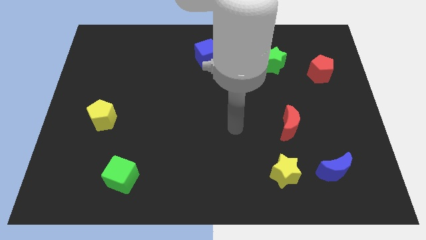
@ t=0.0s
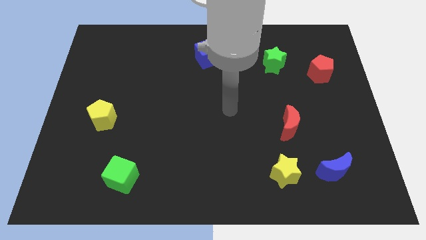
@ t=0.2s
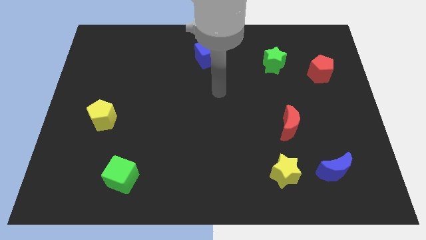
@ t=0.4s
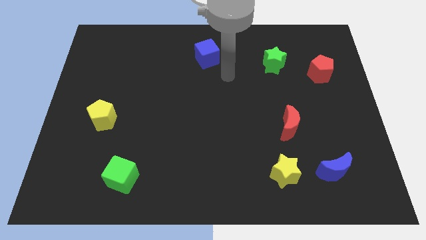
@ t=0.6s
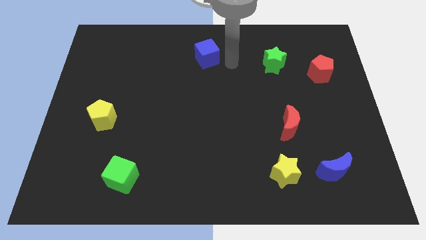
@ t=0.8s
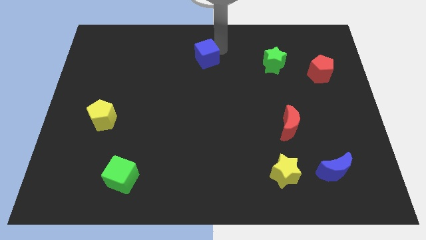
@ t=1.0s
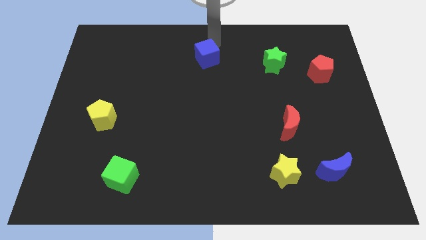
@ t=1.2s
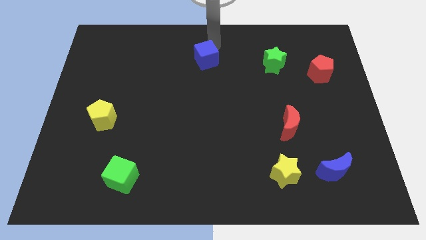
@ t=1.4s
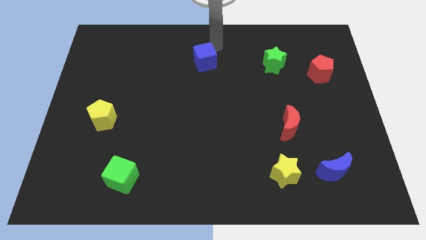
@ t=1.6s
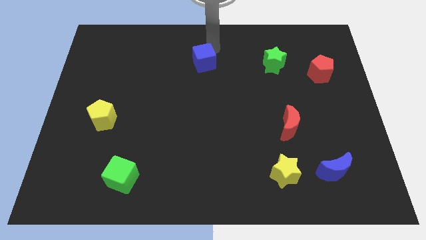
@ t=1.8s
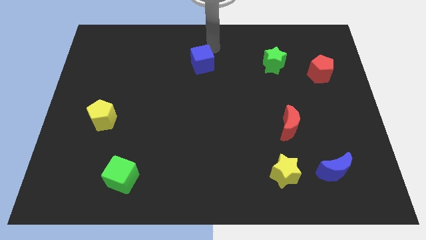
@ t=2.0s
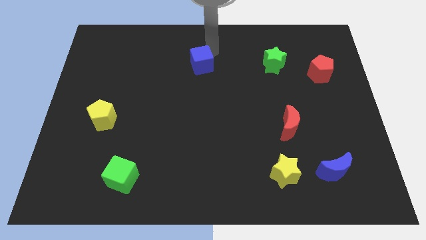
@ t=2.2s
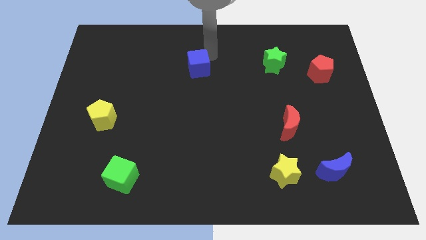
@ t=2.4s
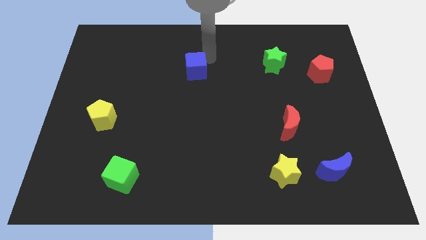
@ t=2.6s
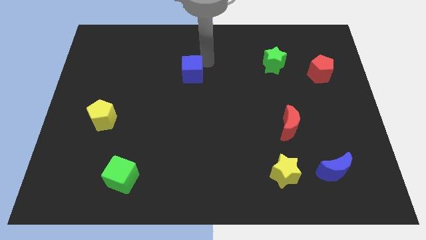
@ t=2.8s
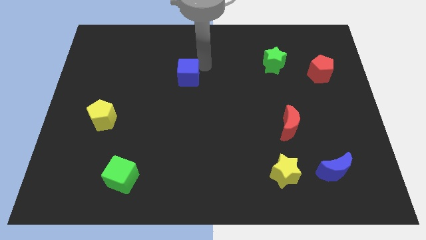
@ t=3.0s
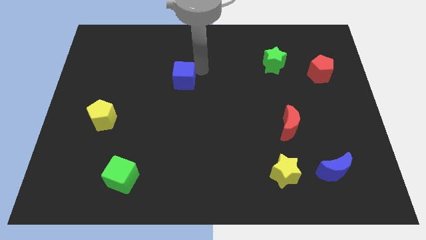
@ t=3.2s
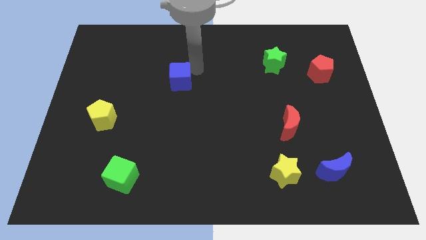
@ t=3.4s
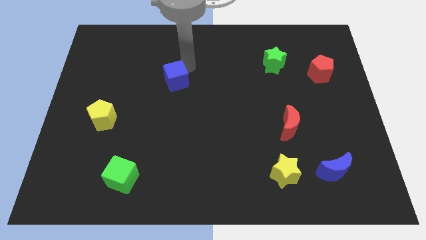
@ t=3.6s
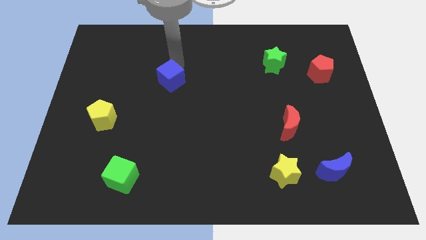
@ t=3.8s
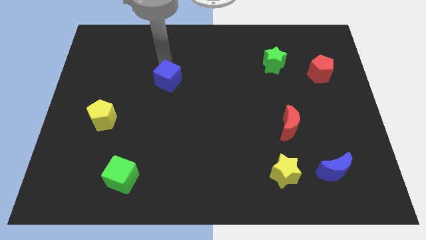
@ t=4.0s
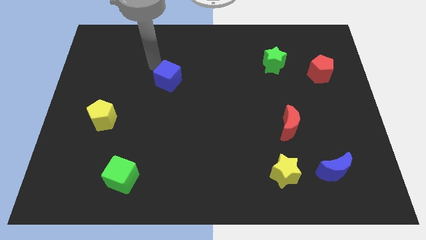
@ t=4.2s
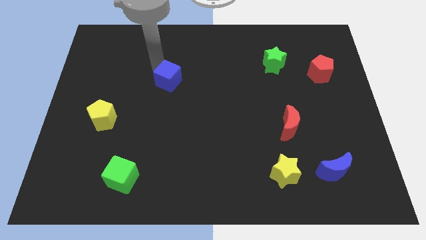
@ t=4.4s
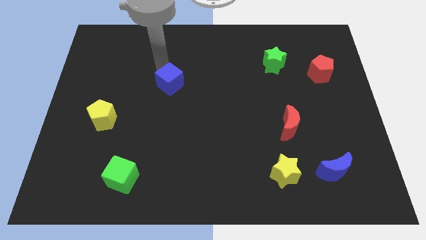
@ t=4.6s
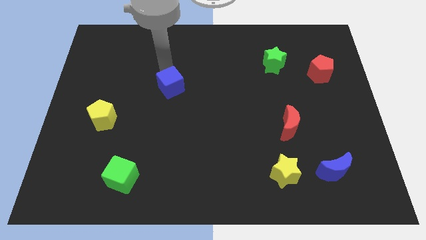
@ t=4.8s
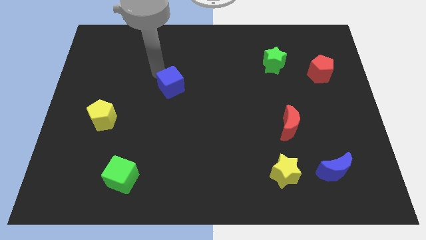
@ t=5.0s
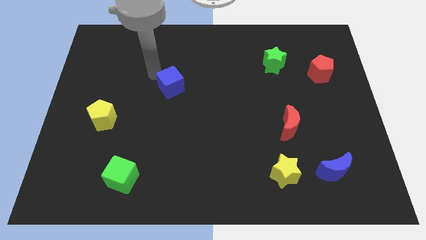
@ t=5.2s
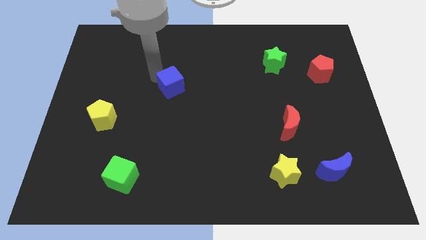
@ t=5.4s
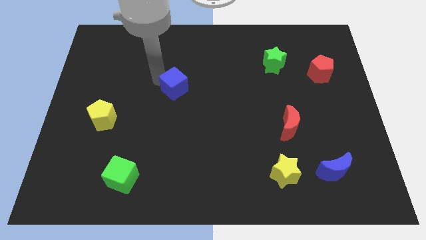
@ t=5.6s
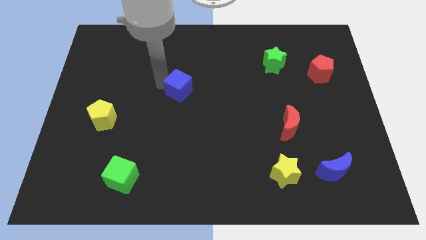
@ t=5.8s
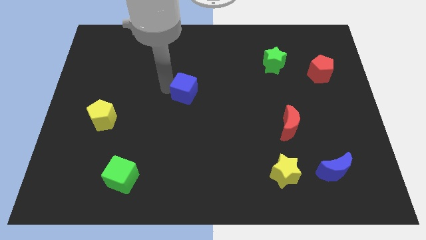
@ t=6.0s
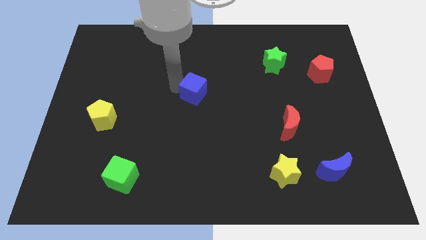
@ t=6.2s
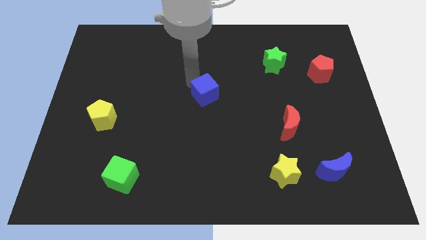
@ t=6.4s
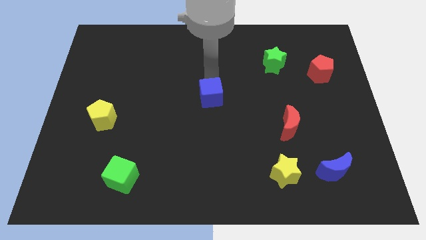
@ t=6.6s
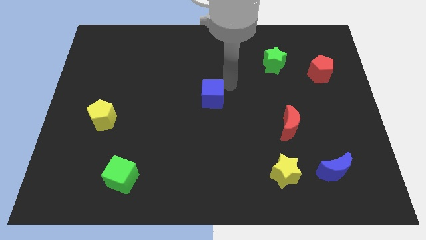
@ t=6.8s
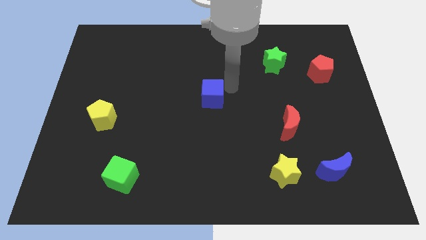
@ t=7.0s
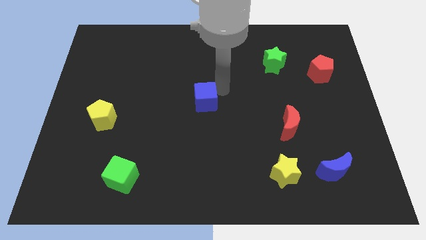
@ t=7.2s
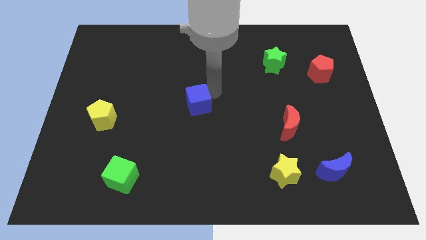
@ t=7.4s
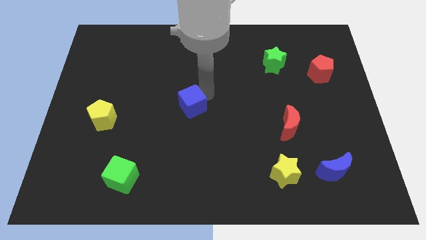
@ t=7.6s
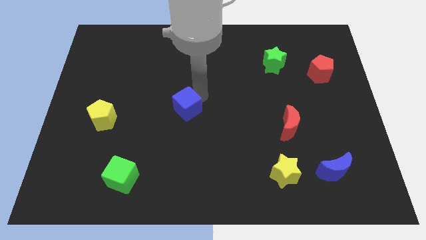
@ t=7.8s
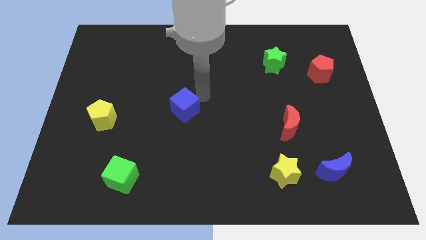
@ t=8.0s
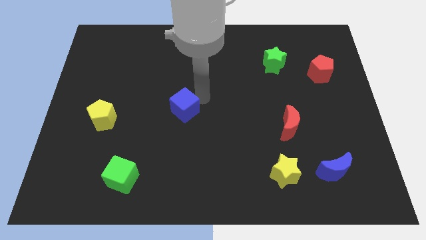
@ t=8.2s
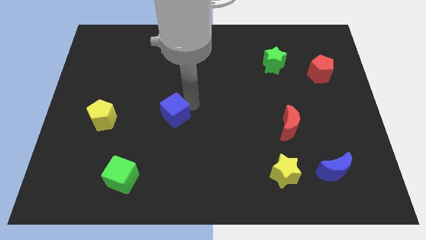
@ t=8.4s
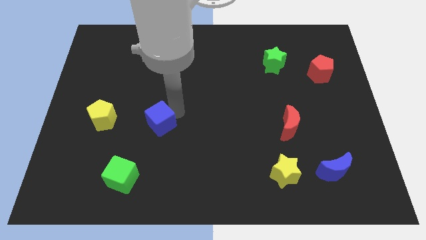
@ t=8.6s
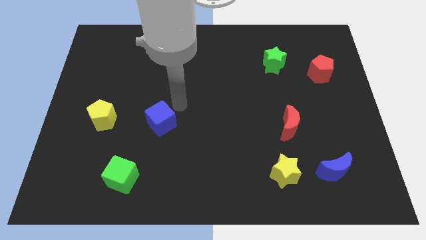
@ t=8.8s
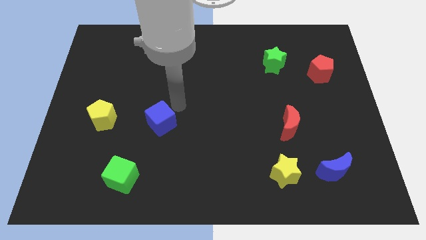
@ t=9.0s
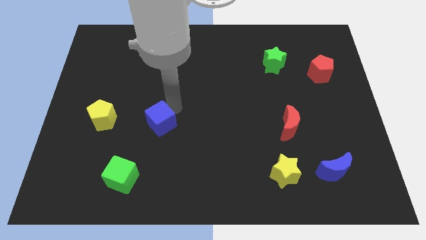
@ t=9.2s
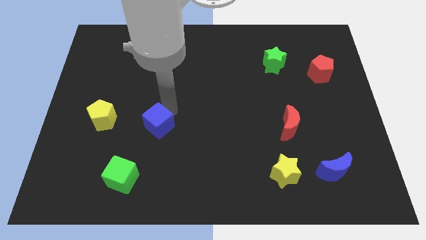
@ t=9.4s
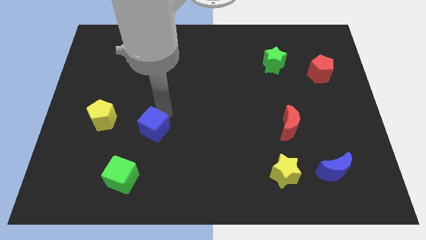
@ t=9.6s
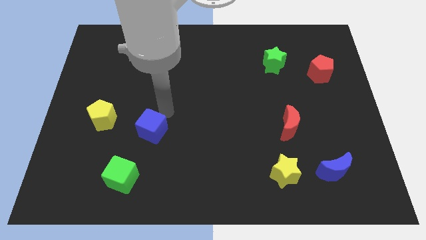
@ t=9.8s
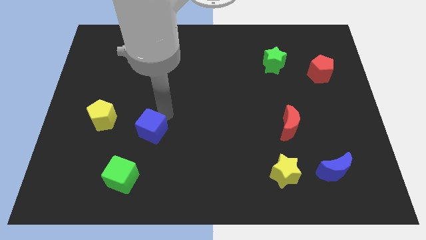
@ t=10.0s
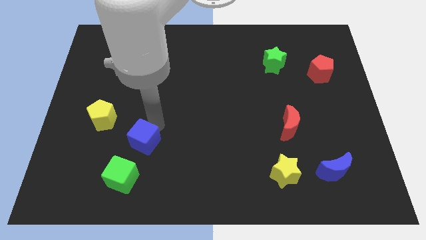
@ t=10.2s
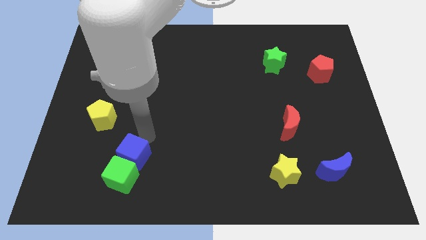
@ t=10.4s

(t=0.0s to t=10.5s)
move the blue cube towards the green cube

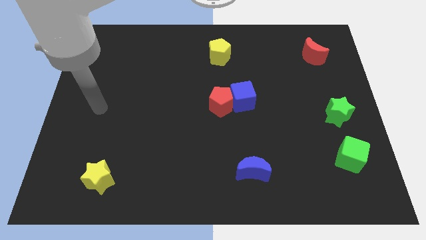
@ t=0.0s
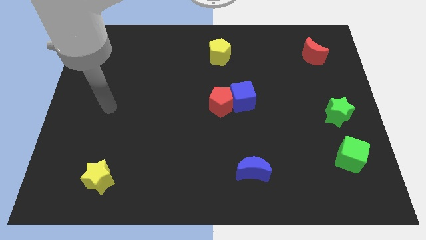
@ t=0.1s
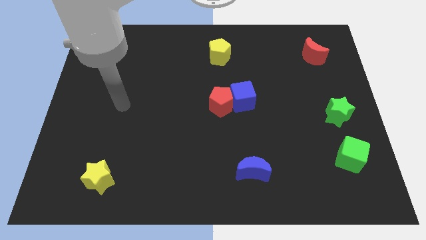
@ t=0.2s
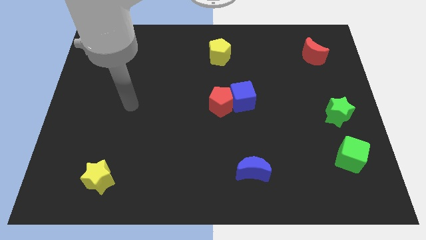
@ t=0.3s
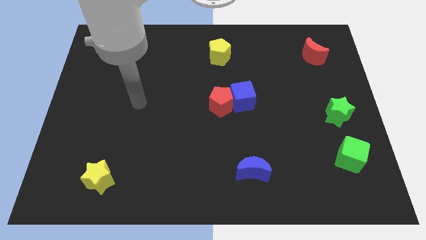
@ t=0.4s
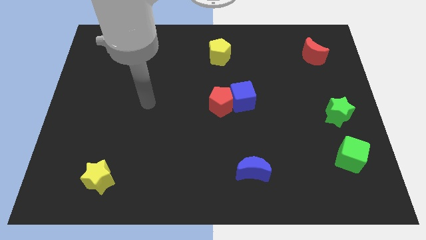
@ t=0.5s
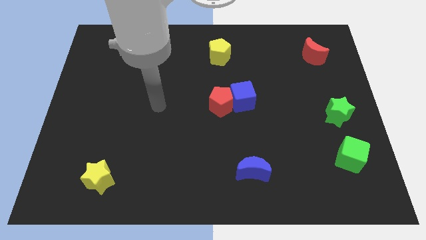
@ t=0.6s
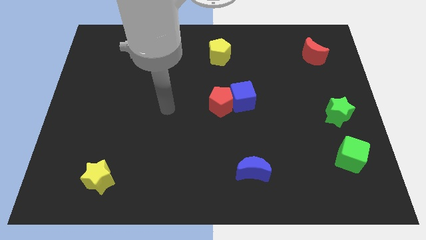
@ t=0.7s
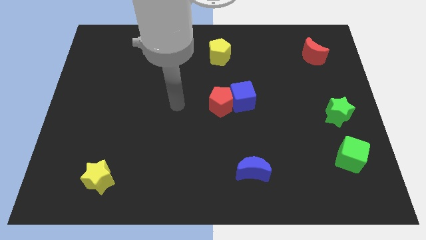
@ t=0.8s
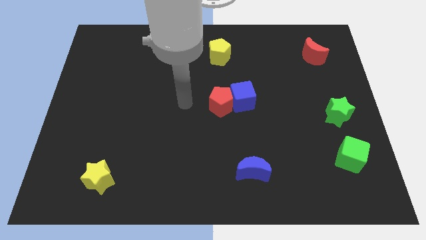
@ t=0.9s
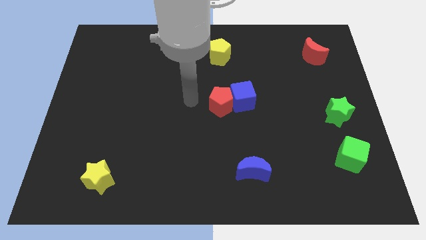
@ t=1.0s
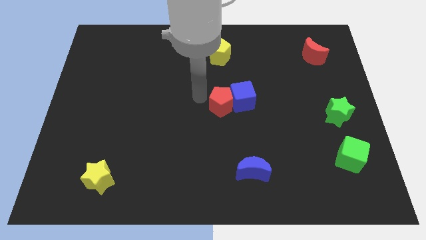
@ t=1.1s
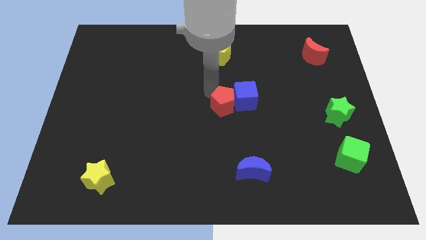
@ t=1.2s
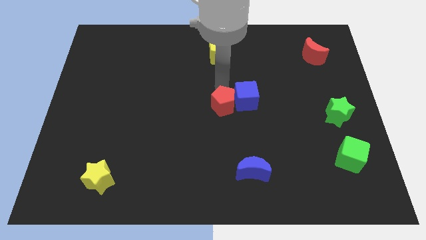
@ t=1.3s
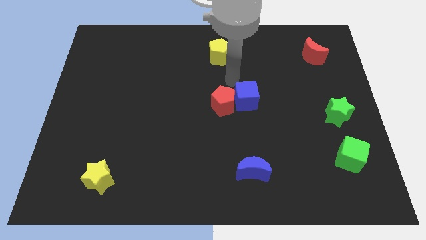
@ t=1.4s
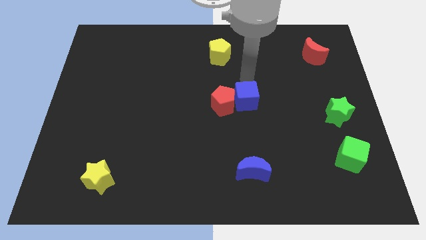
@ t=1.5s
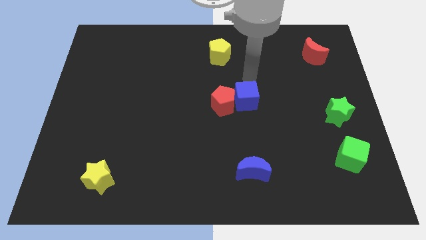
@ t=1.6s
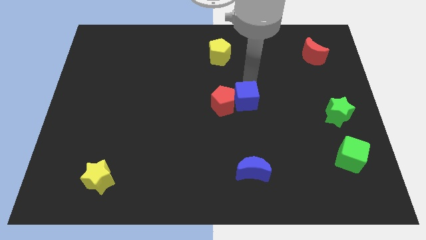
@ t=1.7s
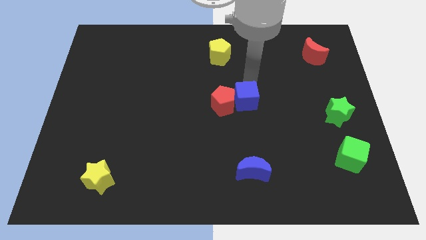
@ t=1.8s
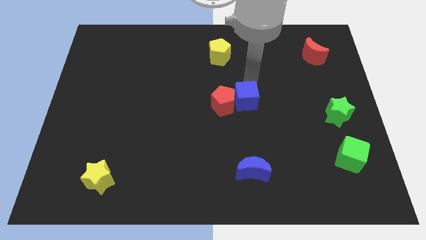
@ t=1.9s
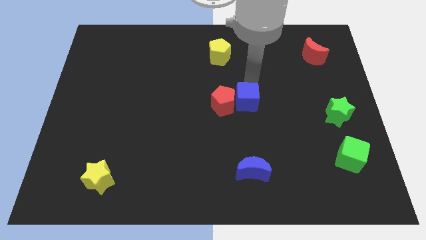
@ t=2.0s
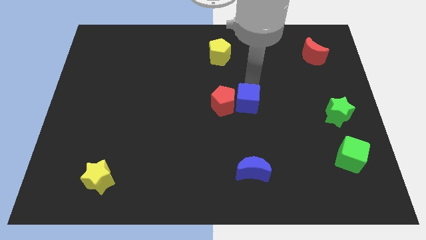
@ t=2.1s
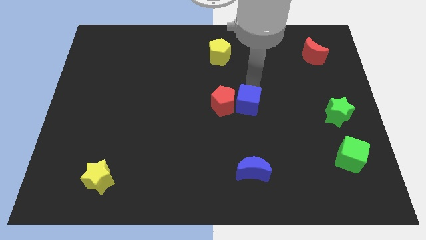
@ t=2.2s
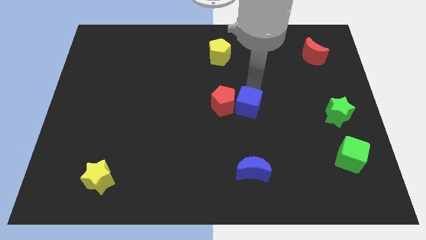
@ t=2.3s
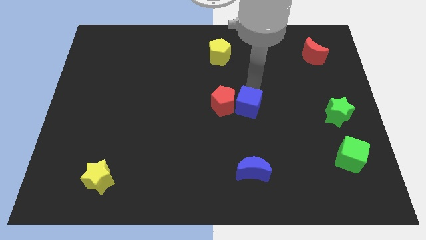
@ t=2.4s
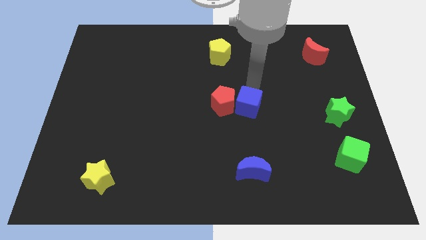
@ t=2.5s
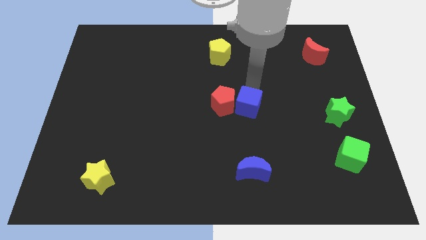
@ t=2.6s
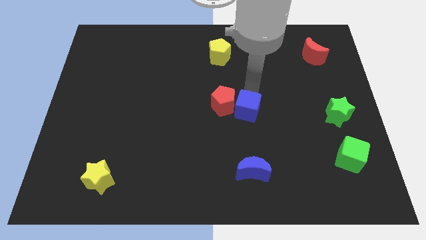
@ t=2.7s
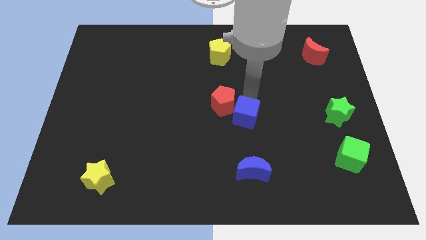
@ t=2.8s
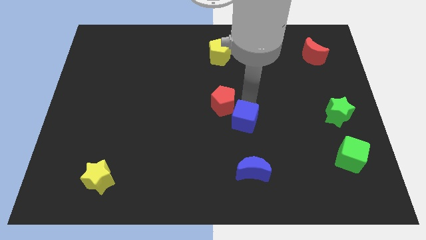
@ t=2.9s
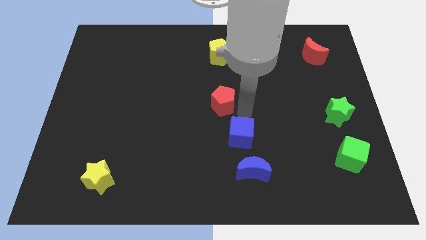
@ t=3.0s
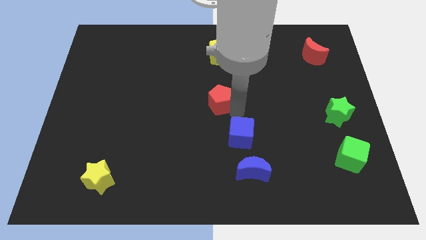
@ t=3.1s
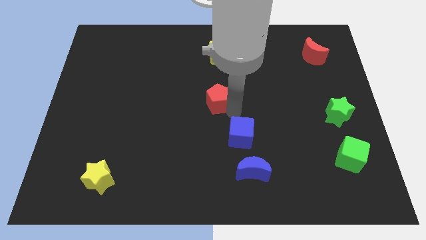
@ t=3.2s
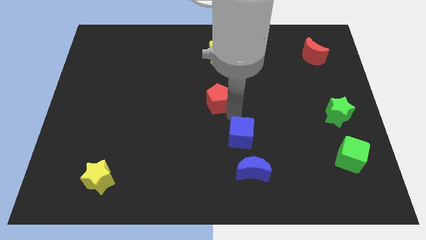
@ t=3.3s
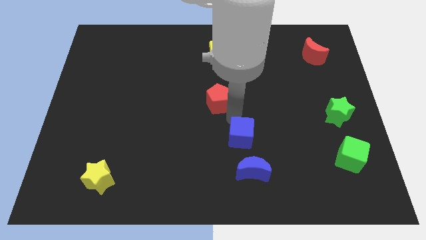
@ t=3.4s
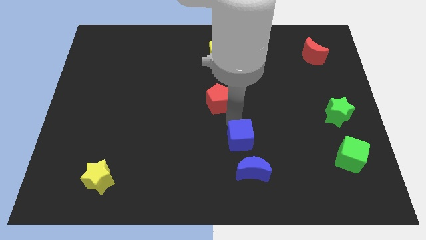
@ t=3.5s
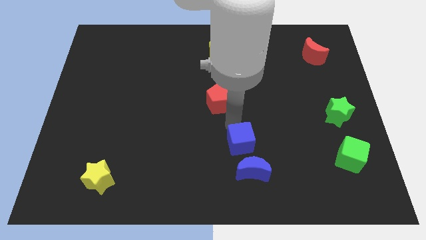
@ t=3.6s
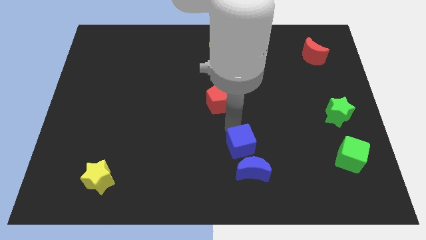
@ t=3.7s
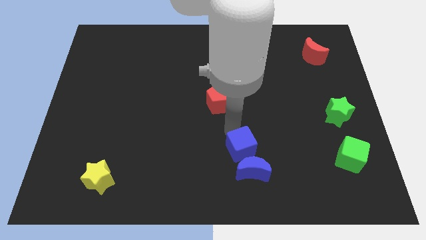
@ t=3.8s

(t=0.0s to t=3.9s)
push the blue cube towards the blue moon
